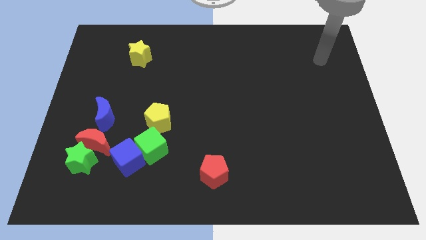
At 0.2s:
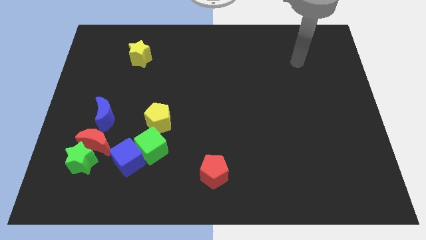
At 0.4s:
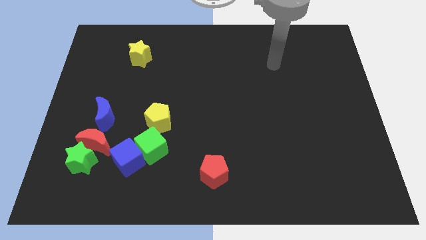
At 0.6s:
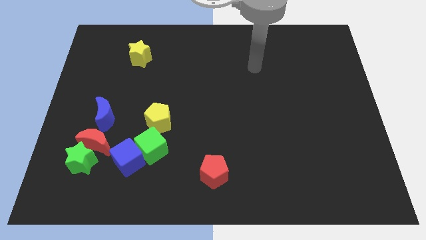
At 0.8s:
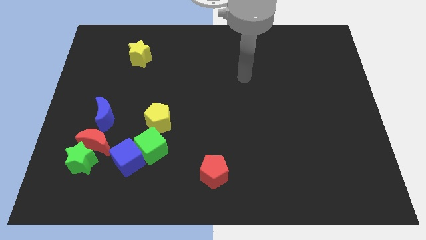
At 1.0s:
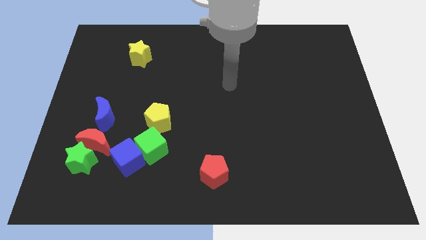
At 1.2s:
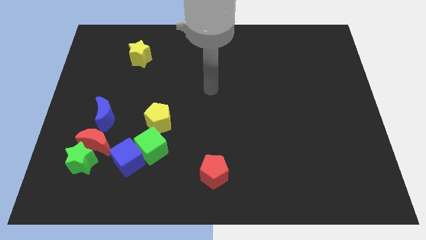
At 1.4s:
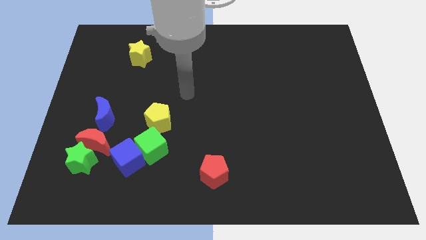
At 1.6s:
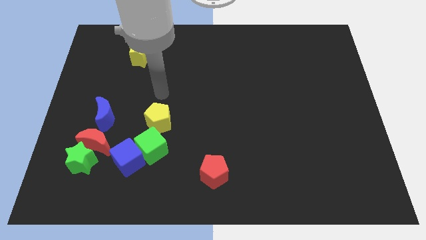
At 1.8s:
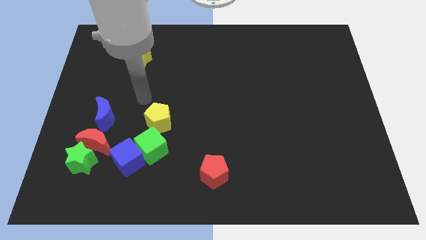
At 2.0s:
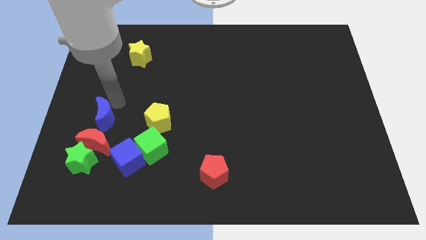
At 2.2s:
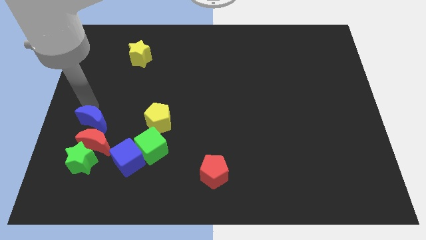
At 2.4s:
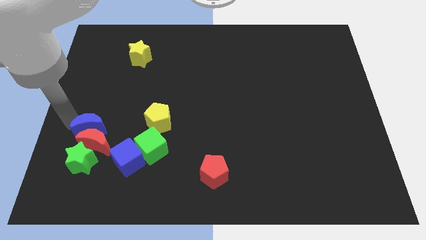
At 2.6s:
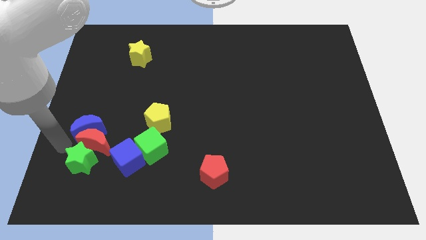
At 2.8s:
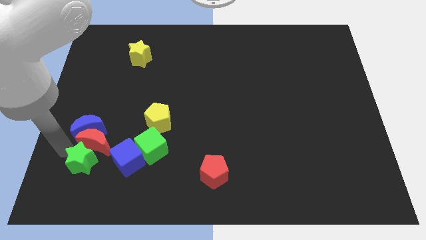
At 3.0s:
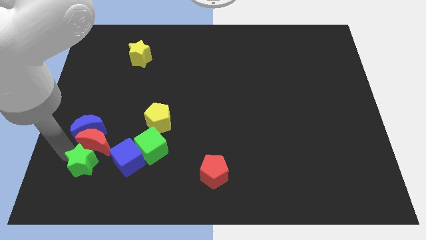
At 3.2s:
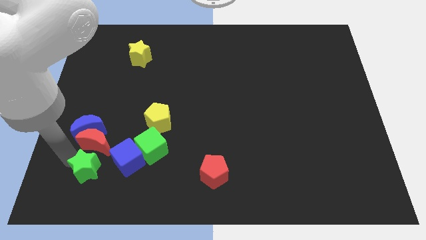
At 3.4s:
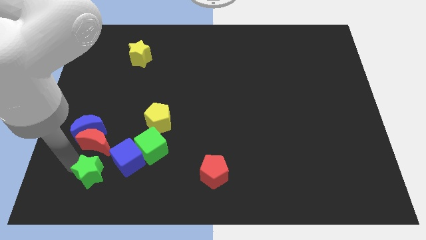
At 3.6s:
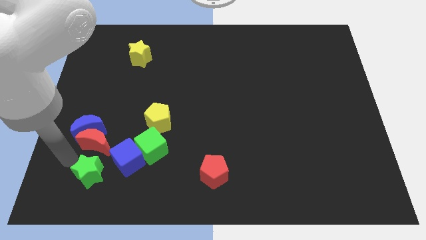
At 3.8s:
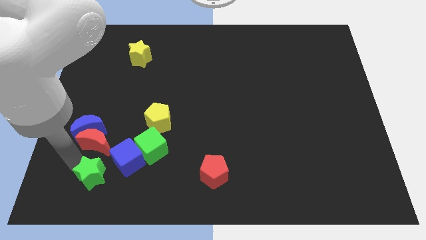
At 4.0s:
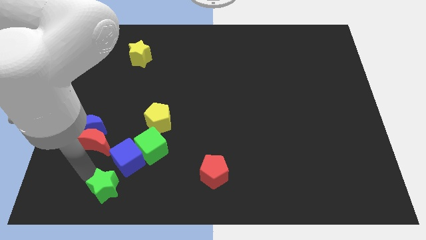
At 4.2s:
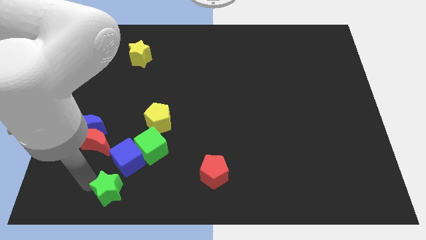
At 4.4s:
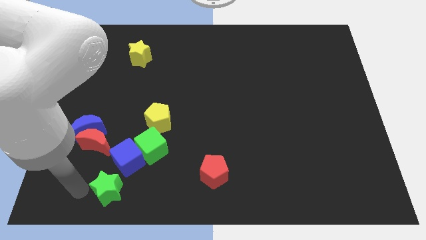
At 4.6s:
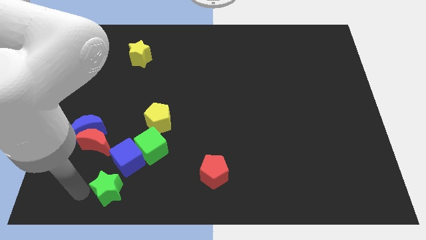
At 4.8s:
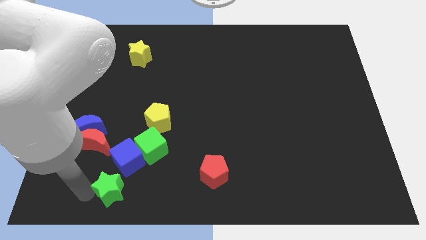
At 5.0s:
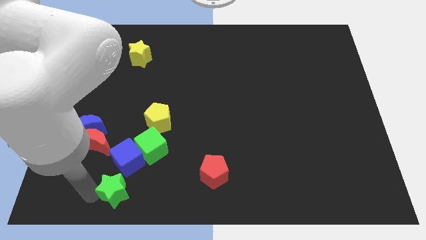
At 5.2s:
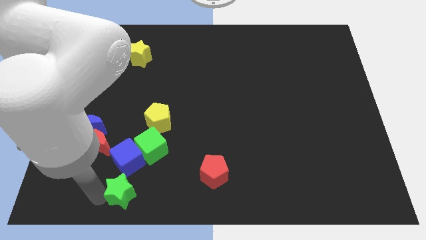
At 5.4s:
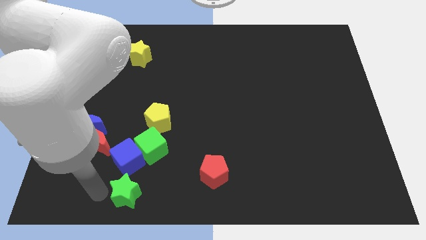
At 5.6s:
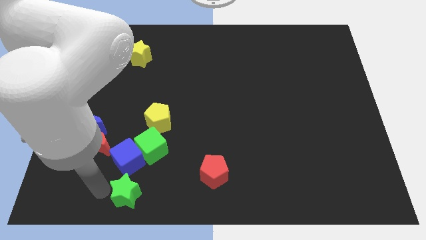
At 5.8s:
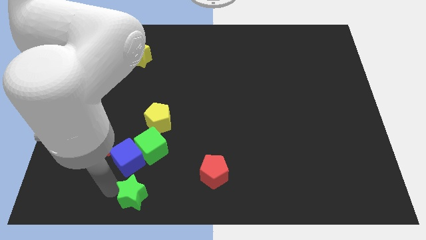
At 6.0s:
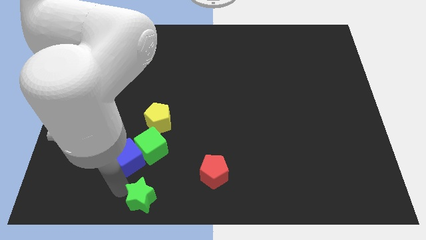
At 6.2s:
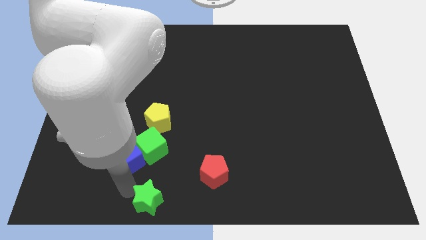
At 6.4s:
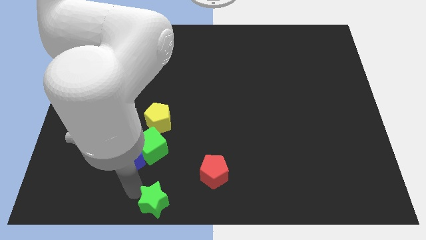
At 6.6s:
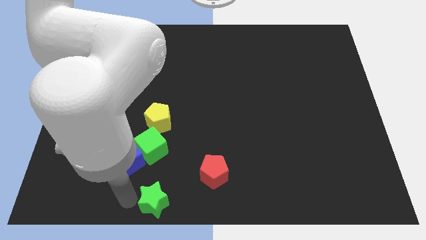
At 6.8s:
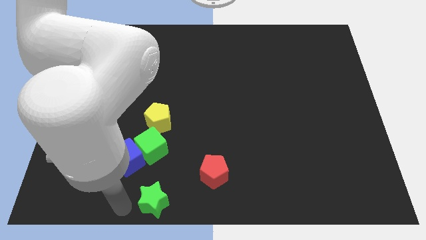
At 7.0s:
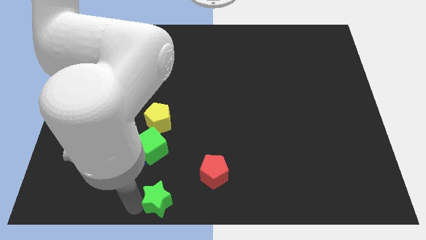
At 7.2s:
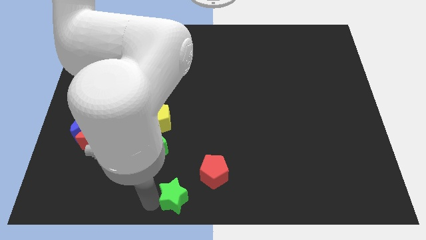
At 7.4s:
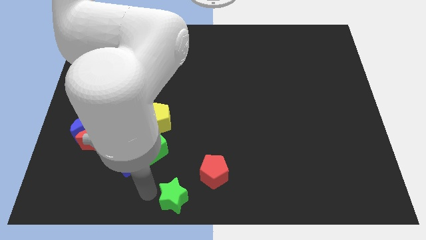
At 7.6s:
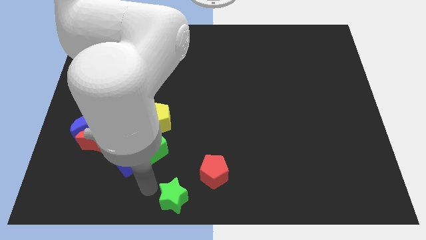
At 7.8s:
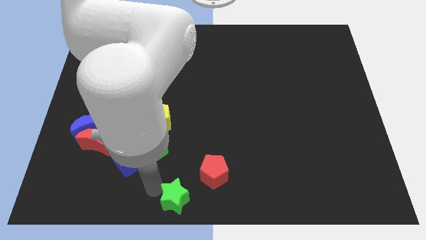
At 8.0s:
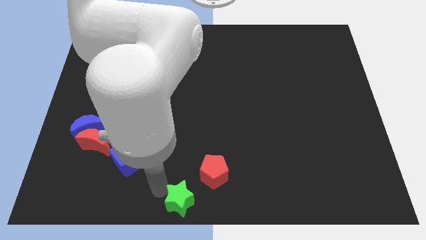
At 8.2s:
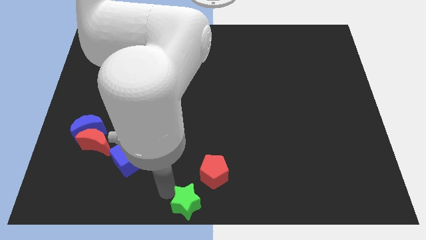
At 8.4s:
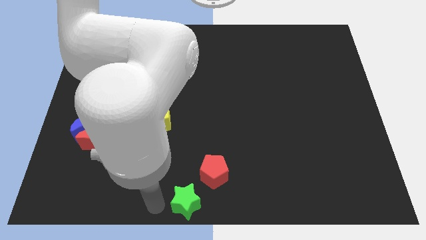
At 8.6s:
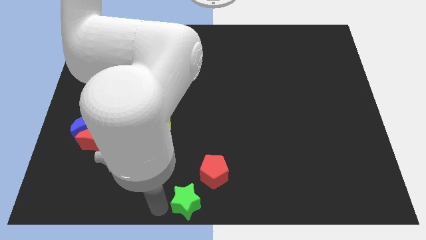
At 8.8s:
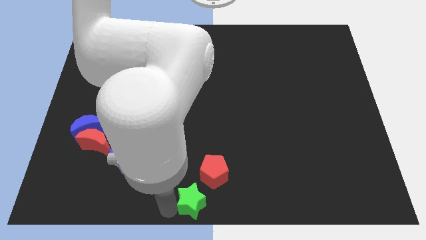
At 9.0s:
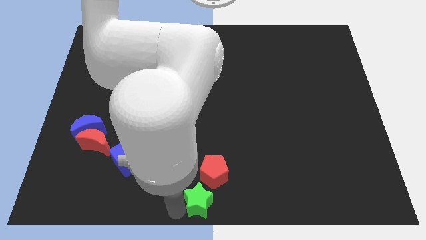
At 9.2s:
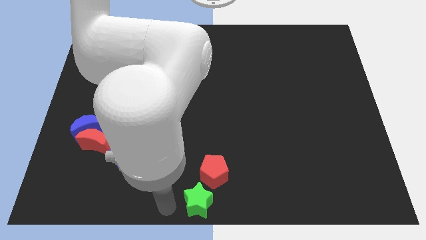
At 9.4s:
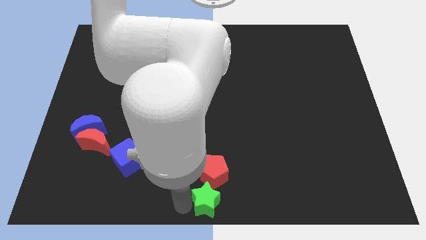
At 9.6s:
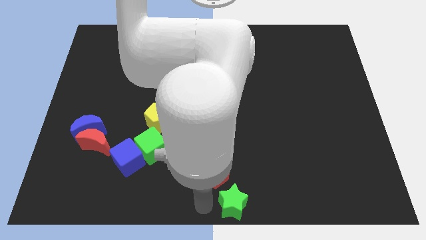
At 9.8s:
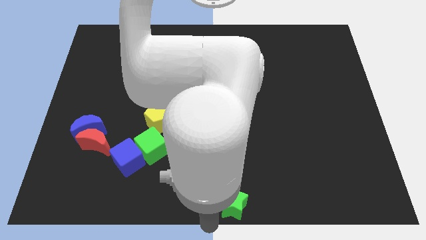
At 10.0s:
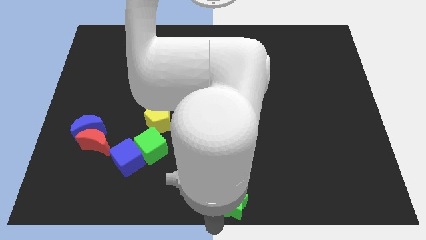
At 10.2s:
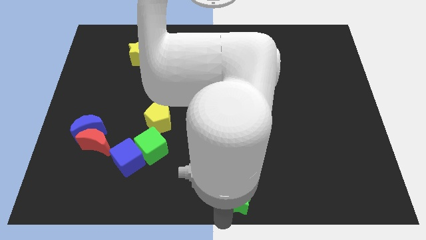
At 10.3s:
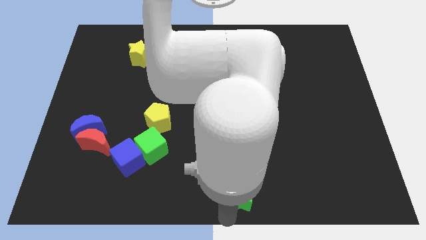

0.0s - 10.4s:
put the green star right of the red pentagon

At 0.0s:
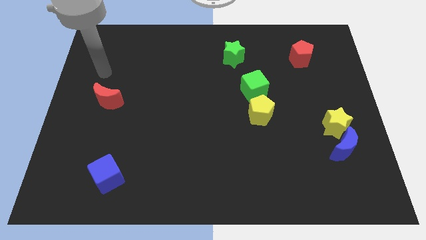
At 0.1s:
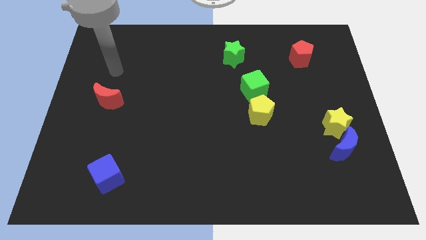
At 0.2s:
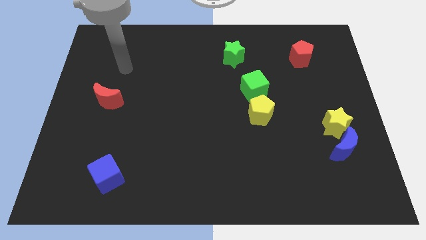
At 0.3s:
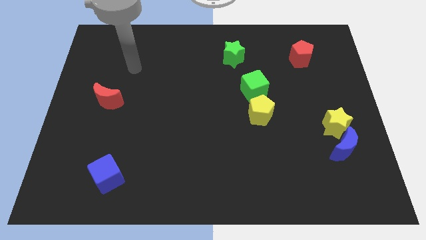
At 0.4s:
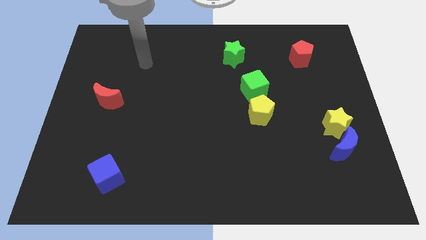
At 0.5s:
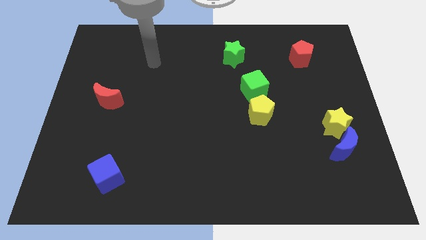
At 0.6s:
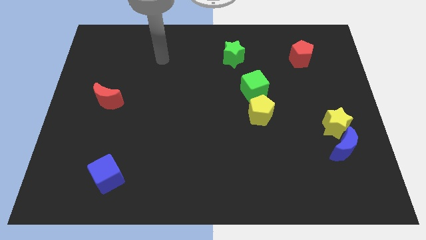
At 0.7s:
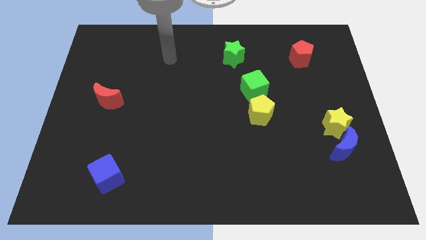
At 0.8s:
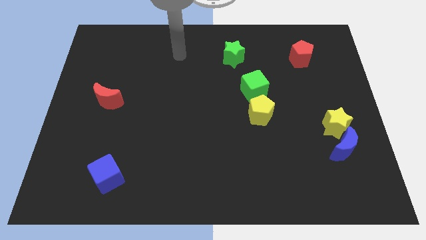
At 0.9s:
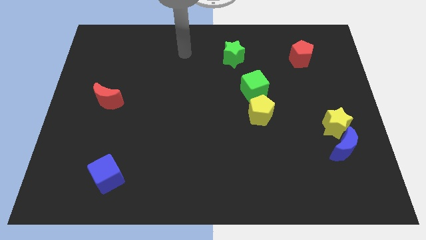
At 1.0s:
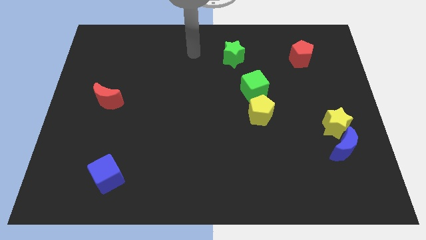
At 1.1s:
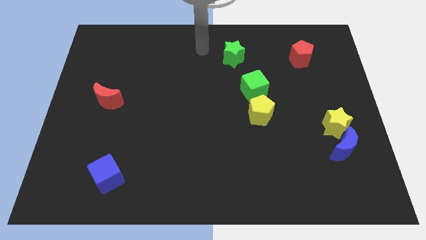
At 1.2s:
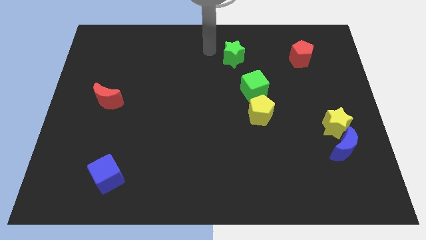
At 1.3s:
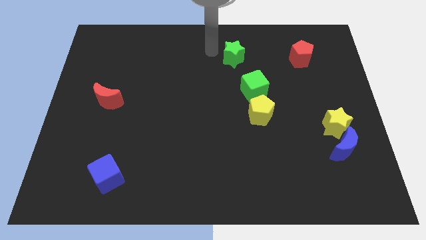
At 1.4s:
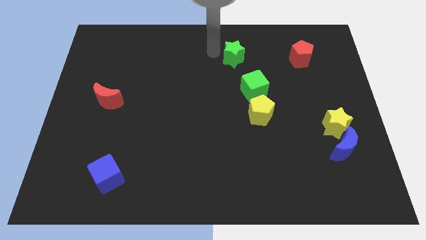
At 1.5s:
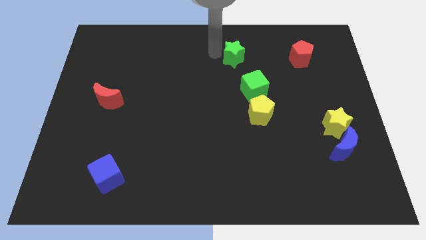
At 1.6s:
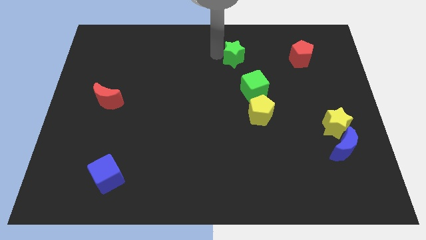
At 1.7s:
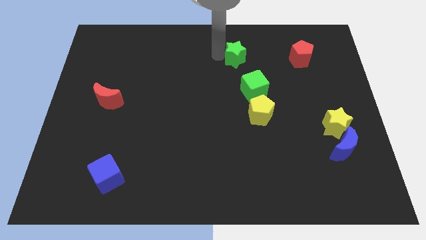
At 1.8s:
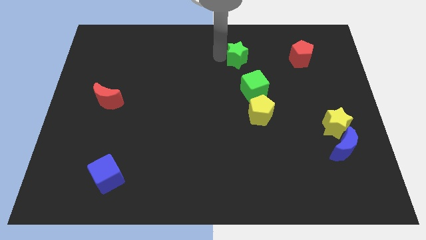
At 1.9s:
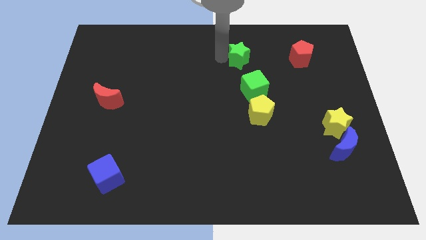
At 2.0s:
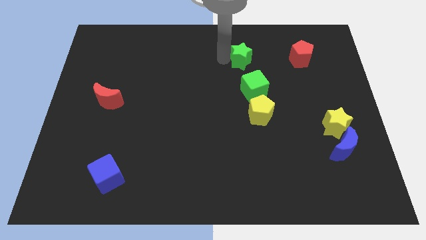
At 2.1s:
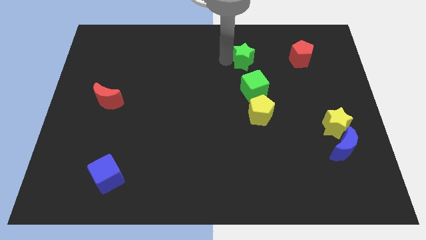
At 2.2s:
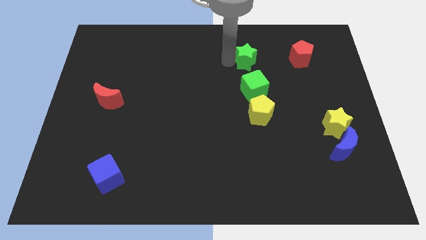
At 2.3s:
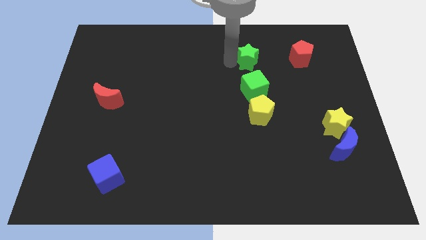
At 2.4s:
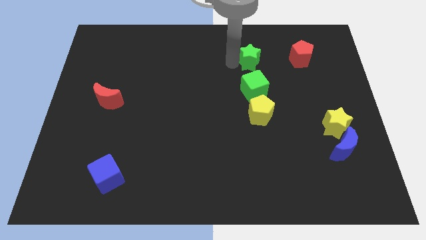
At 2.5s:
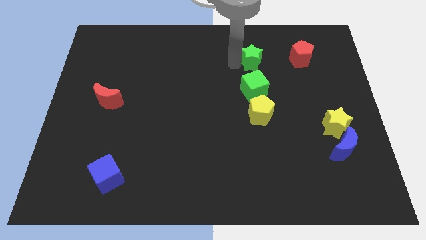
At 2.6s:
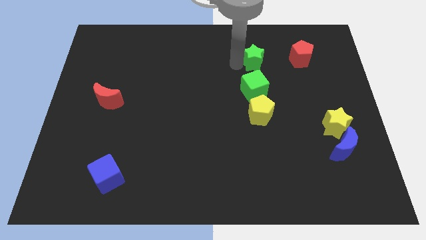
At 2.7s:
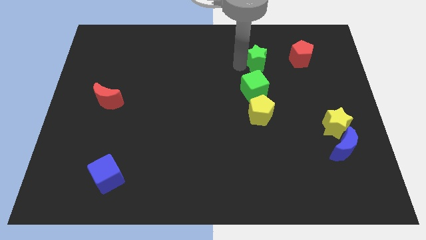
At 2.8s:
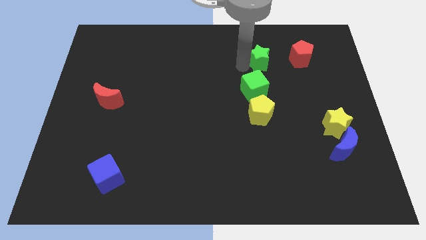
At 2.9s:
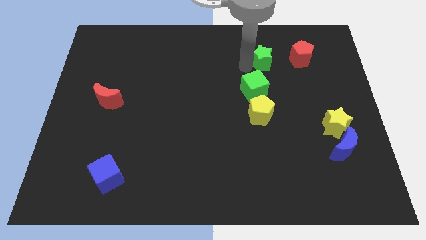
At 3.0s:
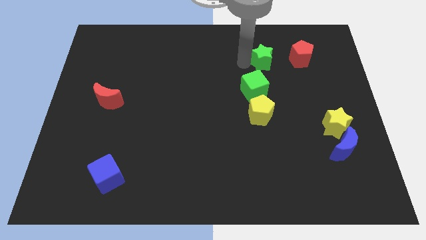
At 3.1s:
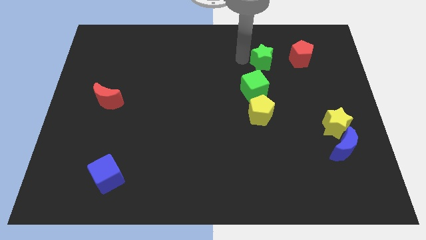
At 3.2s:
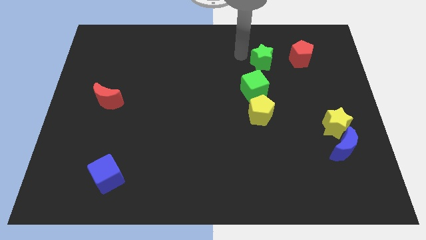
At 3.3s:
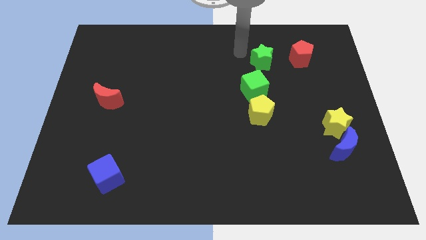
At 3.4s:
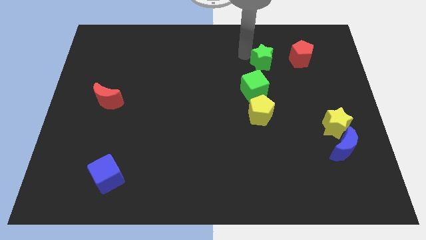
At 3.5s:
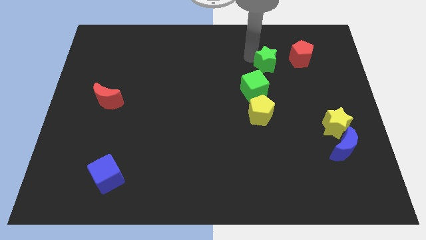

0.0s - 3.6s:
push the green star to the bottom left side of the red pentagon
